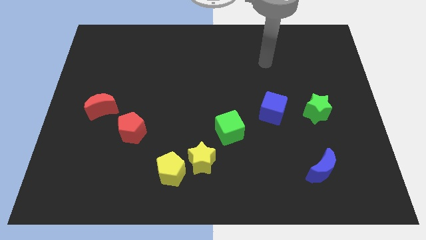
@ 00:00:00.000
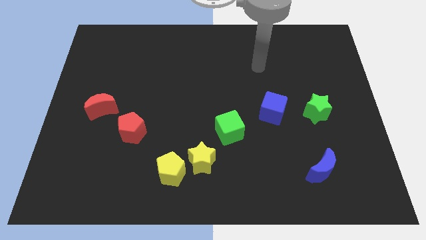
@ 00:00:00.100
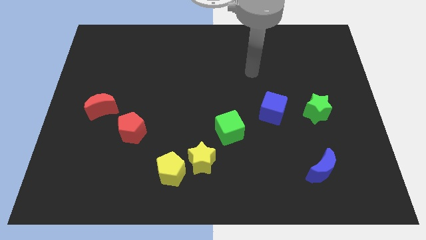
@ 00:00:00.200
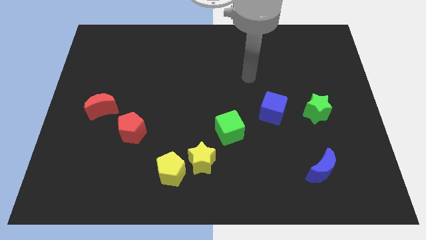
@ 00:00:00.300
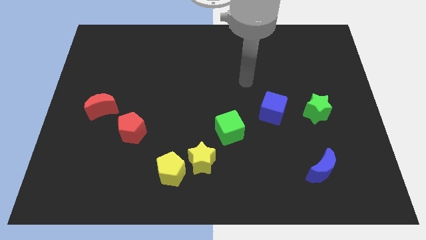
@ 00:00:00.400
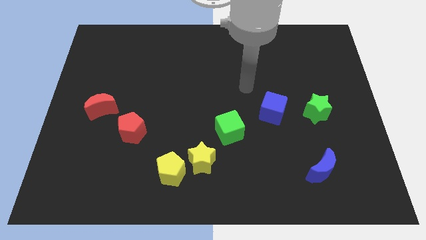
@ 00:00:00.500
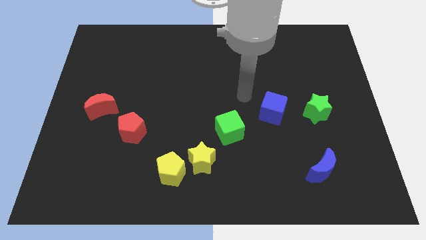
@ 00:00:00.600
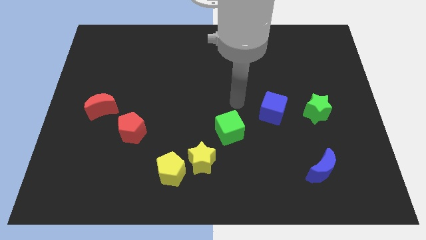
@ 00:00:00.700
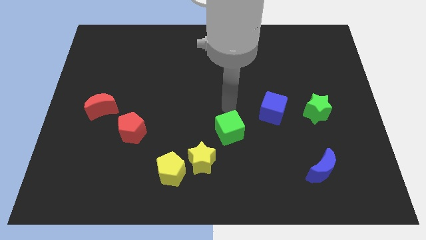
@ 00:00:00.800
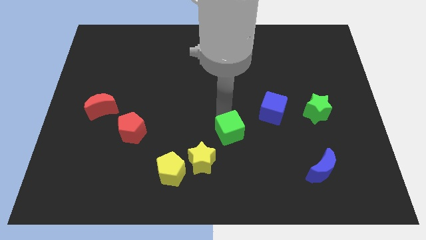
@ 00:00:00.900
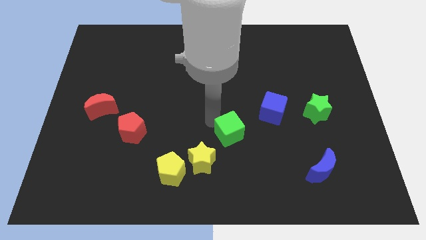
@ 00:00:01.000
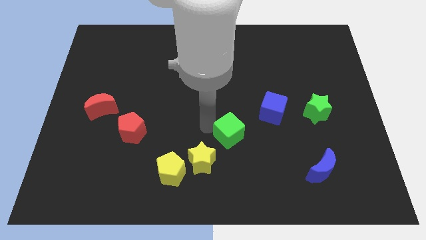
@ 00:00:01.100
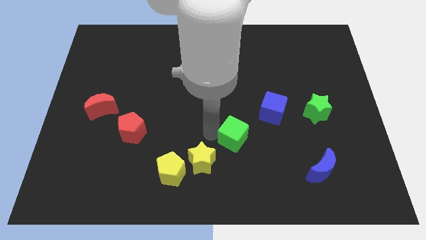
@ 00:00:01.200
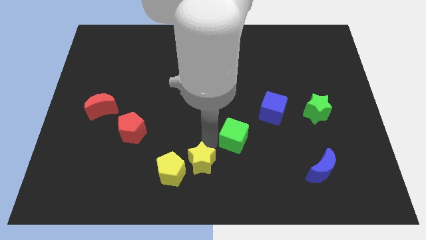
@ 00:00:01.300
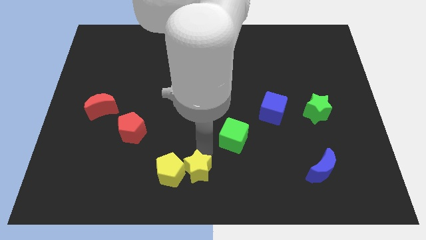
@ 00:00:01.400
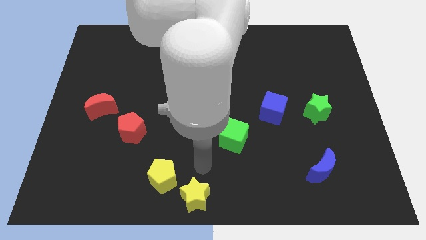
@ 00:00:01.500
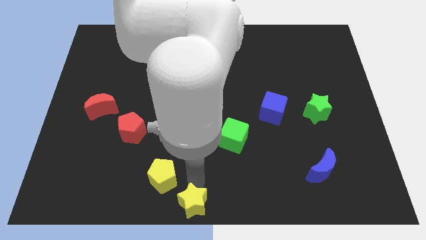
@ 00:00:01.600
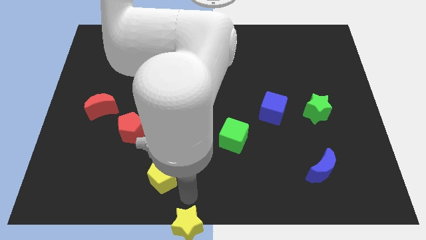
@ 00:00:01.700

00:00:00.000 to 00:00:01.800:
move the yellow pentagon away from the yellow star

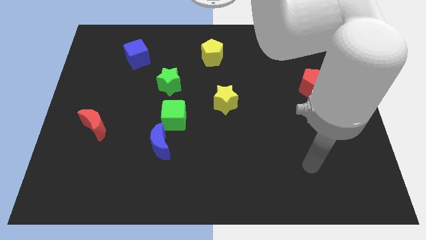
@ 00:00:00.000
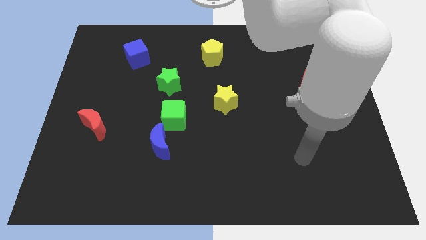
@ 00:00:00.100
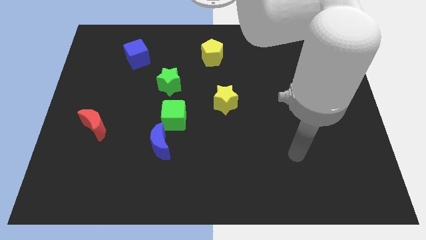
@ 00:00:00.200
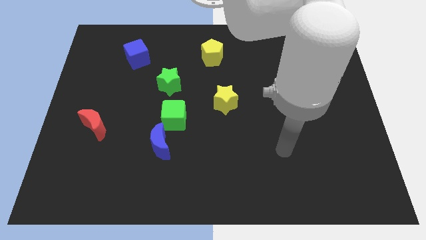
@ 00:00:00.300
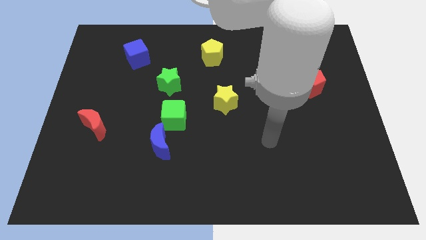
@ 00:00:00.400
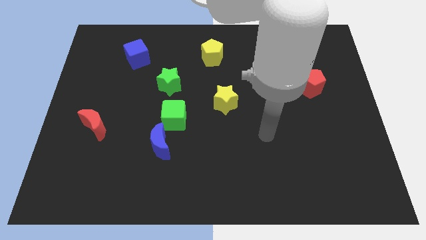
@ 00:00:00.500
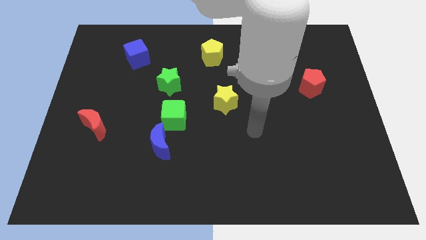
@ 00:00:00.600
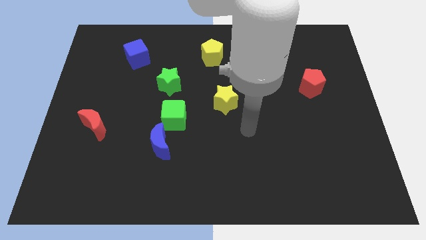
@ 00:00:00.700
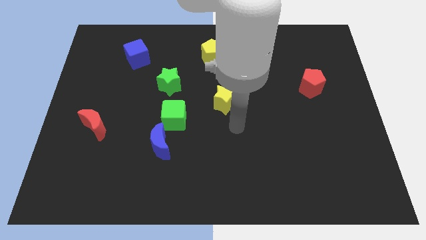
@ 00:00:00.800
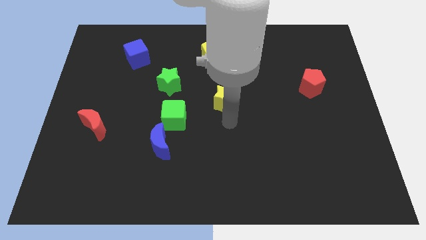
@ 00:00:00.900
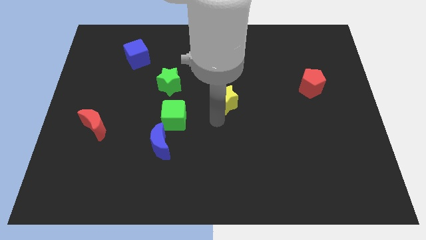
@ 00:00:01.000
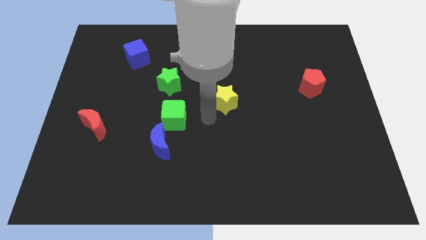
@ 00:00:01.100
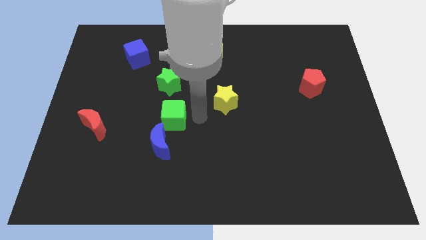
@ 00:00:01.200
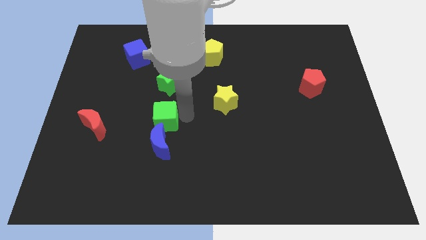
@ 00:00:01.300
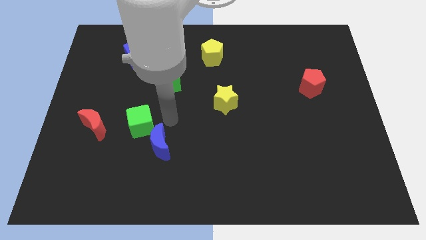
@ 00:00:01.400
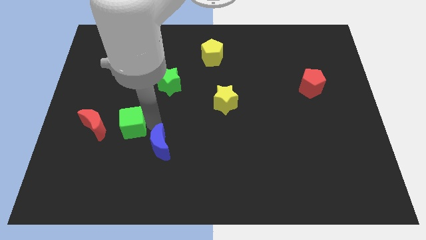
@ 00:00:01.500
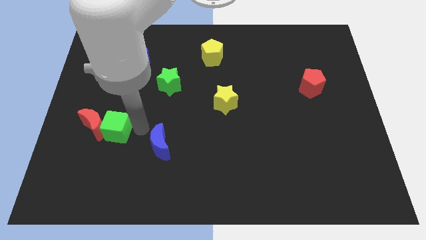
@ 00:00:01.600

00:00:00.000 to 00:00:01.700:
separate the blue moon from the green cube

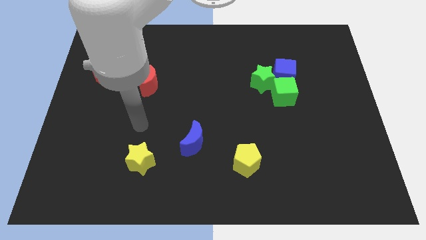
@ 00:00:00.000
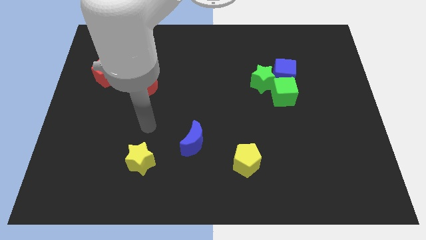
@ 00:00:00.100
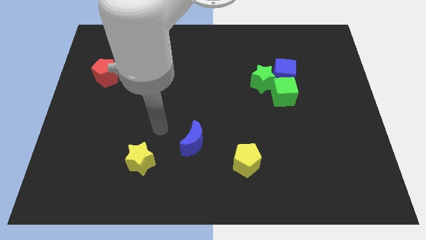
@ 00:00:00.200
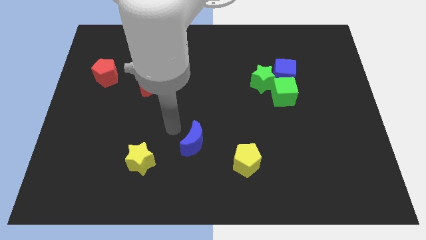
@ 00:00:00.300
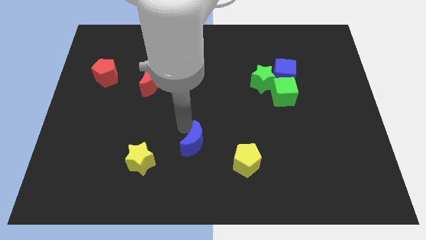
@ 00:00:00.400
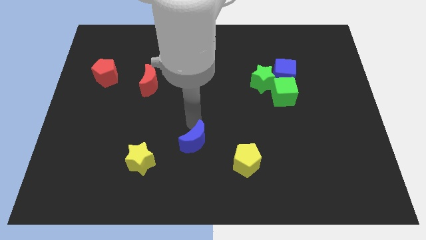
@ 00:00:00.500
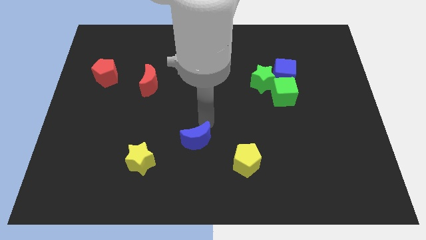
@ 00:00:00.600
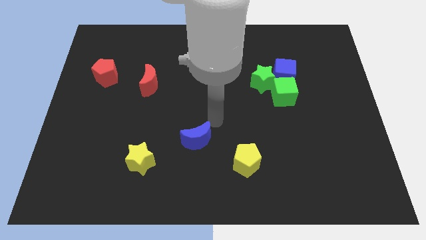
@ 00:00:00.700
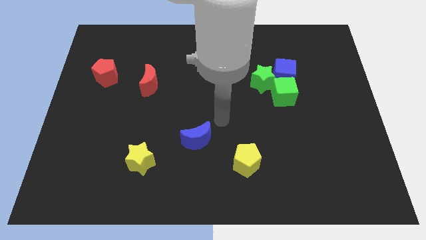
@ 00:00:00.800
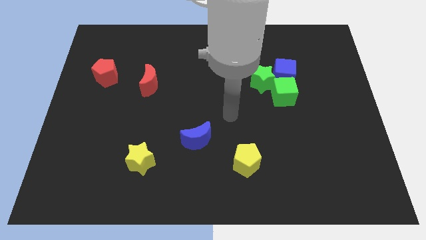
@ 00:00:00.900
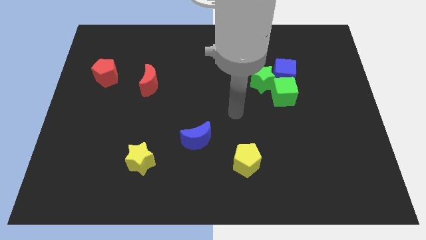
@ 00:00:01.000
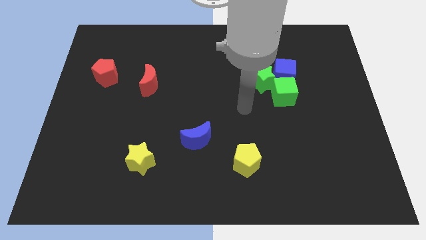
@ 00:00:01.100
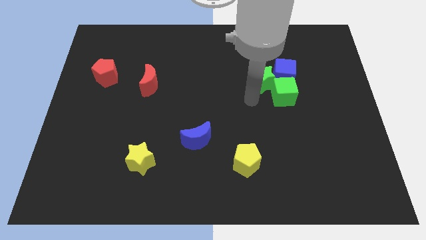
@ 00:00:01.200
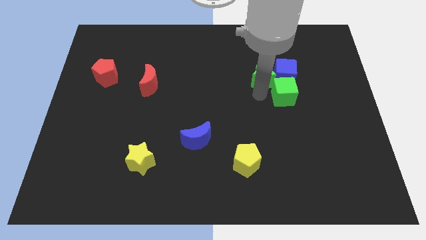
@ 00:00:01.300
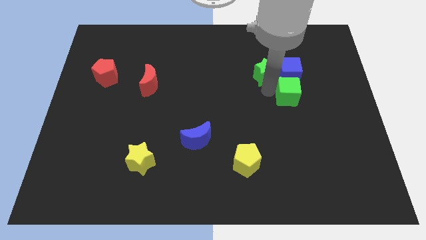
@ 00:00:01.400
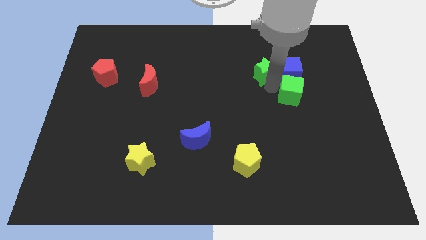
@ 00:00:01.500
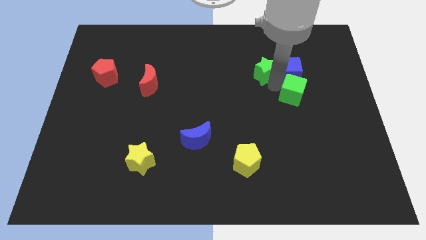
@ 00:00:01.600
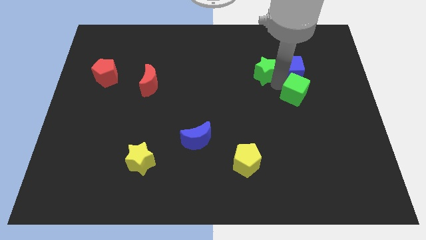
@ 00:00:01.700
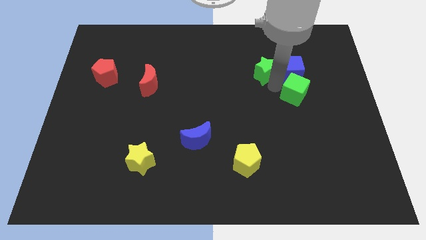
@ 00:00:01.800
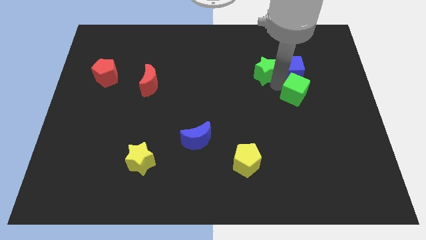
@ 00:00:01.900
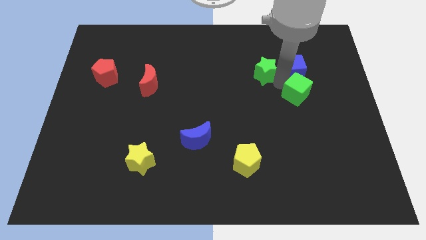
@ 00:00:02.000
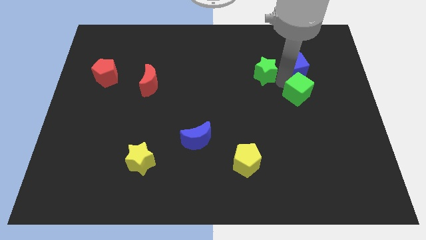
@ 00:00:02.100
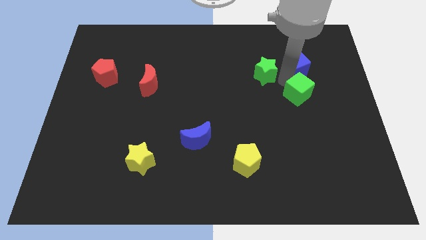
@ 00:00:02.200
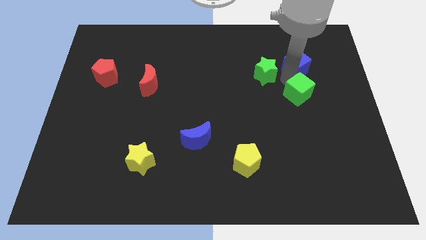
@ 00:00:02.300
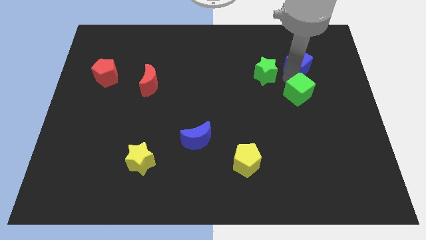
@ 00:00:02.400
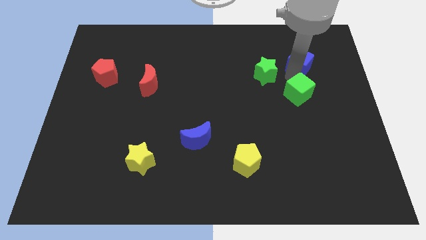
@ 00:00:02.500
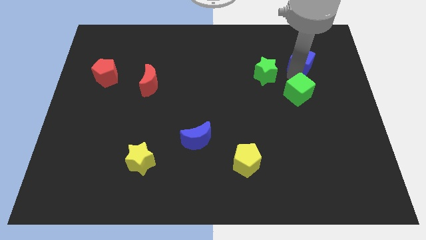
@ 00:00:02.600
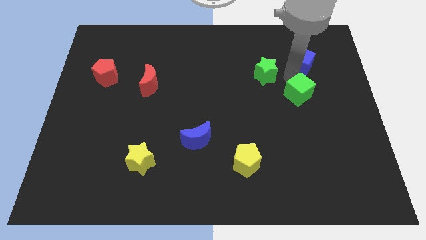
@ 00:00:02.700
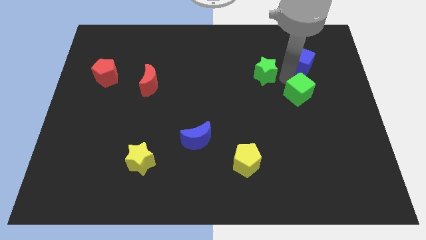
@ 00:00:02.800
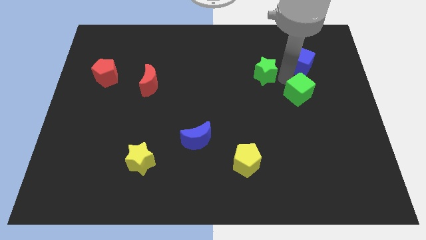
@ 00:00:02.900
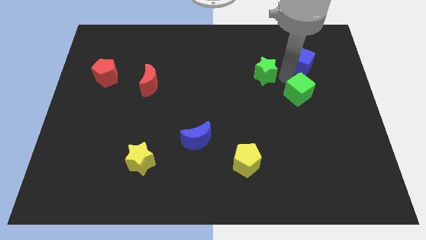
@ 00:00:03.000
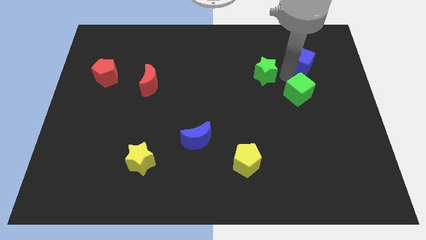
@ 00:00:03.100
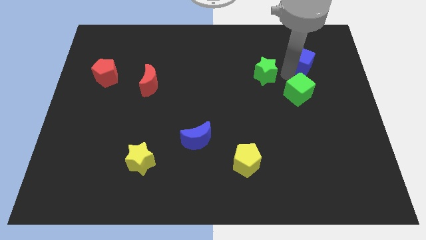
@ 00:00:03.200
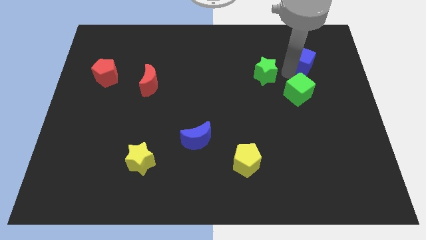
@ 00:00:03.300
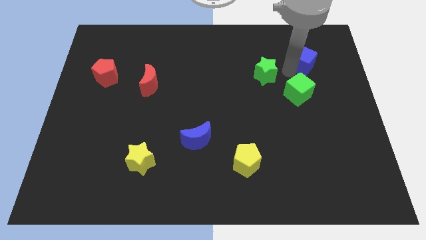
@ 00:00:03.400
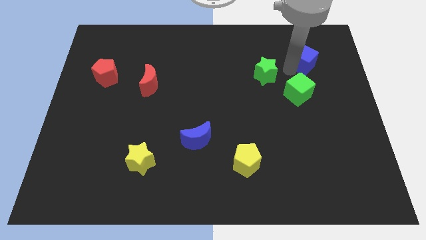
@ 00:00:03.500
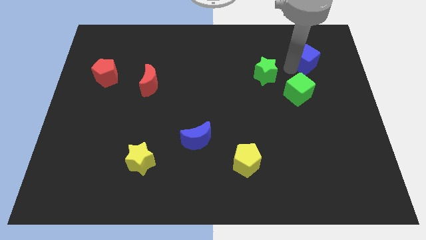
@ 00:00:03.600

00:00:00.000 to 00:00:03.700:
move the blue cube away from the green star and green cube

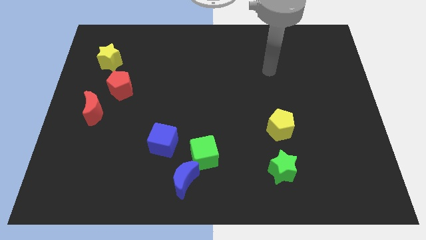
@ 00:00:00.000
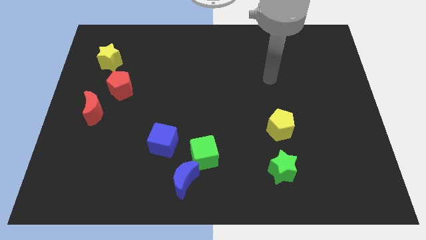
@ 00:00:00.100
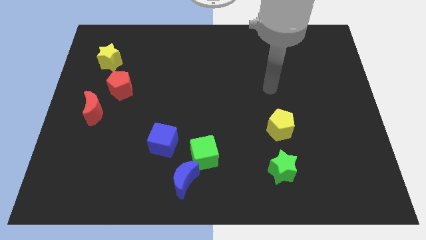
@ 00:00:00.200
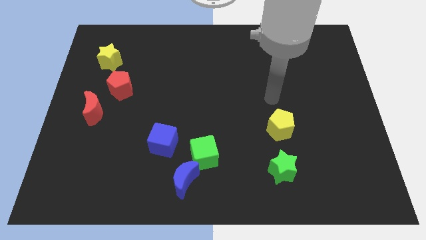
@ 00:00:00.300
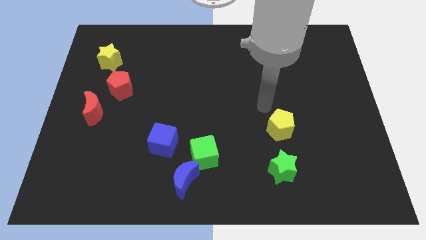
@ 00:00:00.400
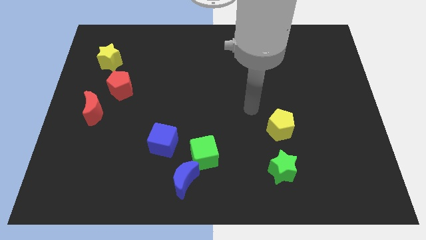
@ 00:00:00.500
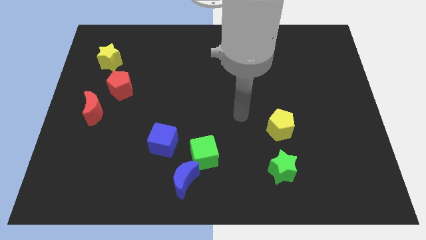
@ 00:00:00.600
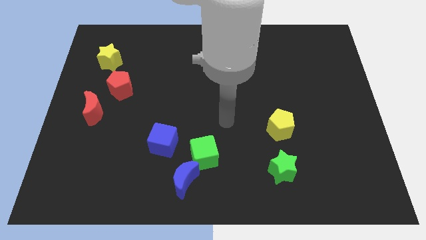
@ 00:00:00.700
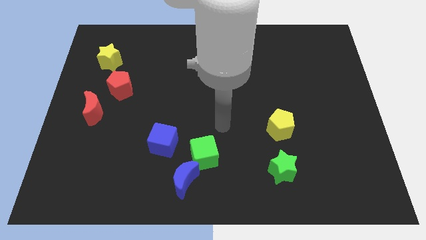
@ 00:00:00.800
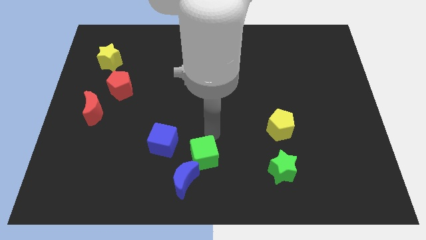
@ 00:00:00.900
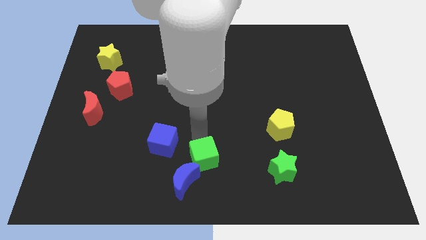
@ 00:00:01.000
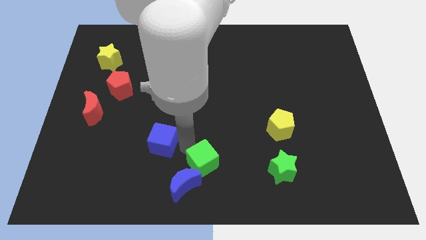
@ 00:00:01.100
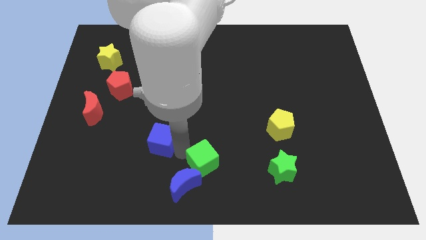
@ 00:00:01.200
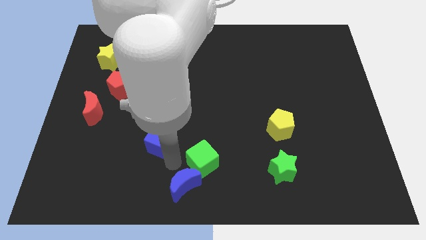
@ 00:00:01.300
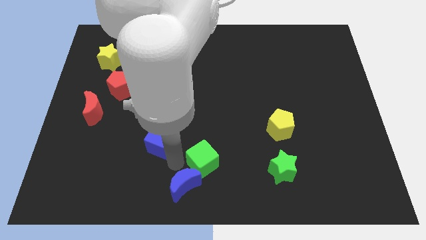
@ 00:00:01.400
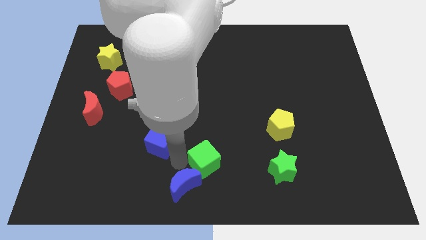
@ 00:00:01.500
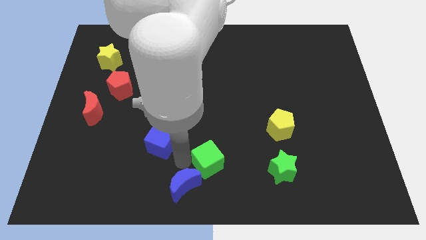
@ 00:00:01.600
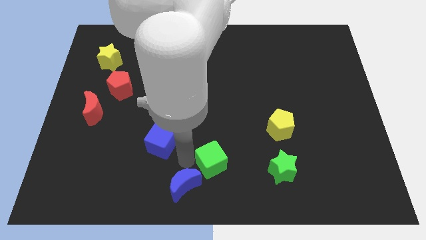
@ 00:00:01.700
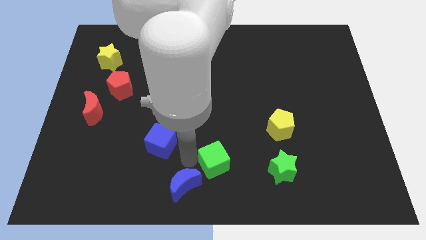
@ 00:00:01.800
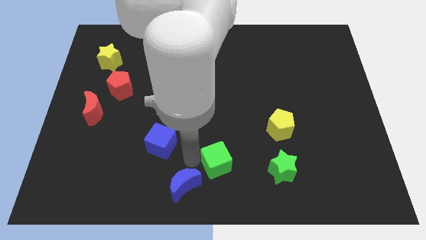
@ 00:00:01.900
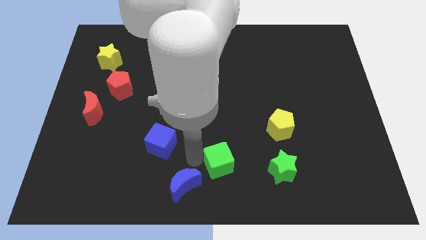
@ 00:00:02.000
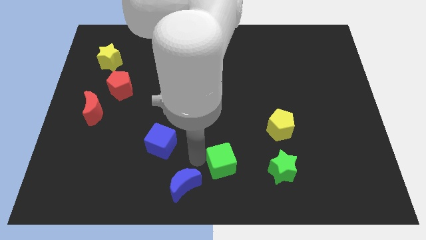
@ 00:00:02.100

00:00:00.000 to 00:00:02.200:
move the green cube away from the blue moon and blue cube
